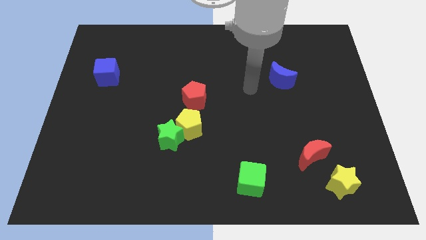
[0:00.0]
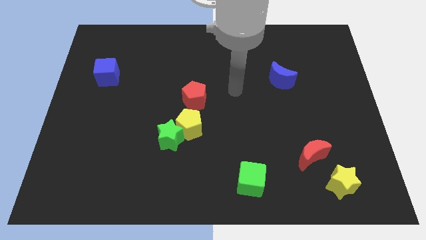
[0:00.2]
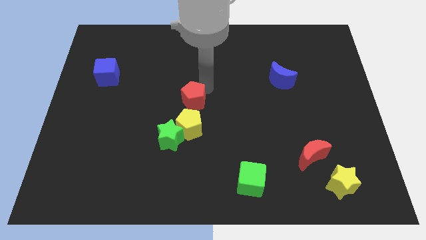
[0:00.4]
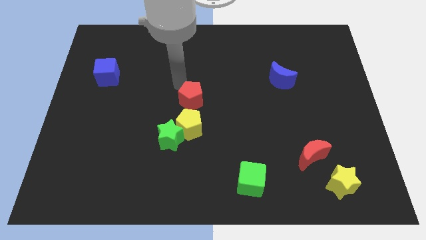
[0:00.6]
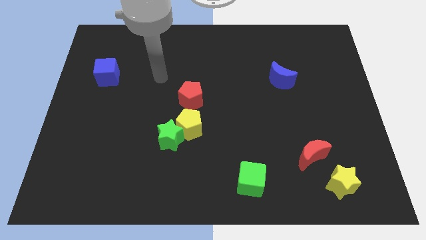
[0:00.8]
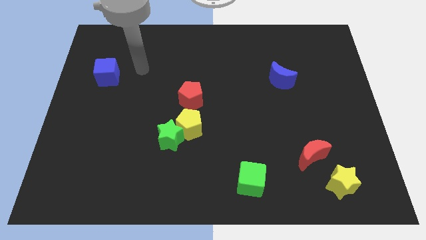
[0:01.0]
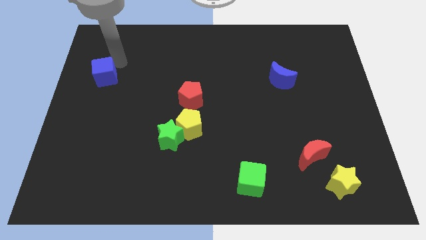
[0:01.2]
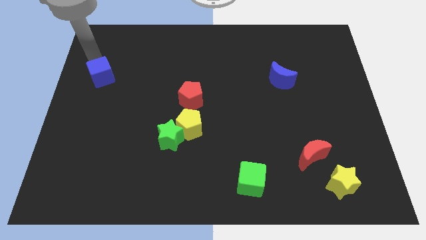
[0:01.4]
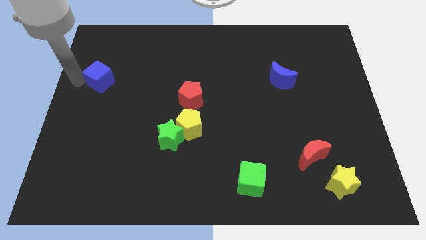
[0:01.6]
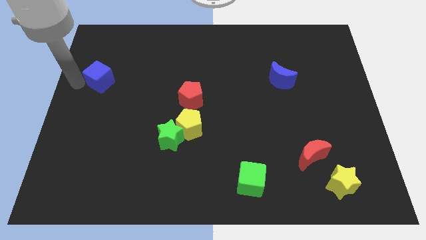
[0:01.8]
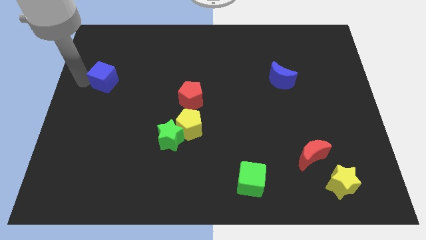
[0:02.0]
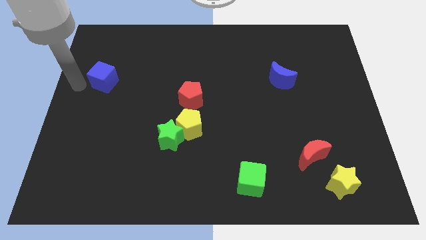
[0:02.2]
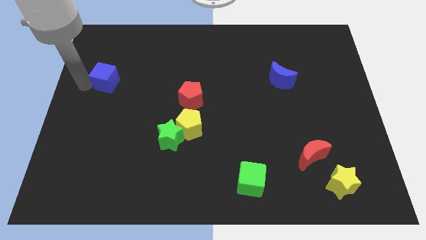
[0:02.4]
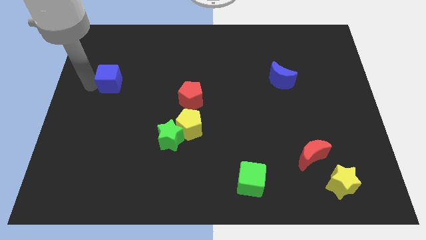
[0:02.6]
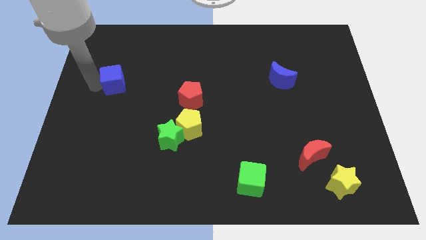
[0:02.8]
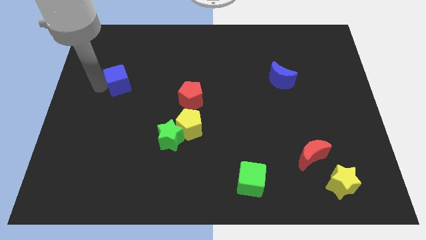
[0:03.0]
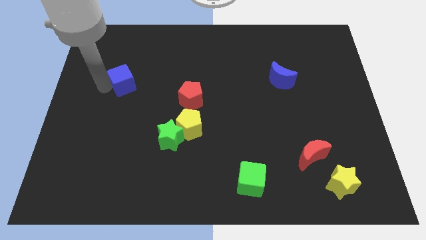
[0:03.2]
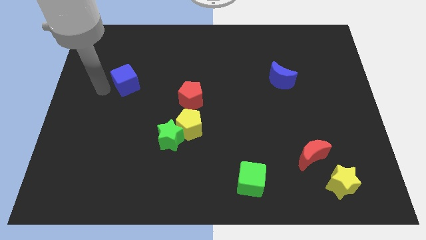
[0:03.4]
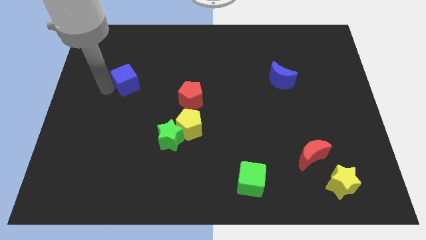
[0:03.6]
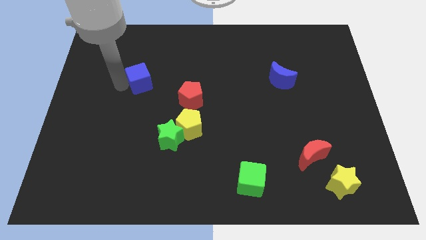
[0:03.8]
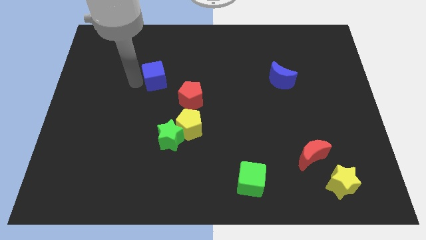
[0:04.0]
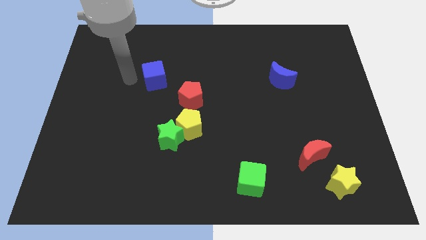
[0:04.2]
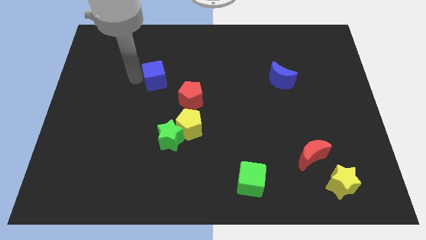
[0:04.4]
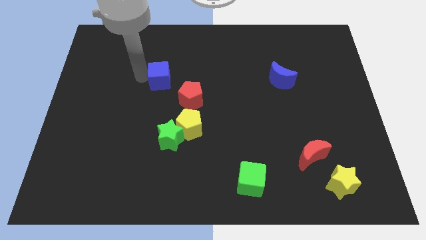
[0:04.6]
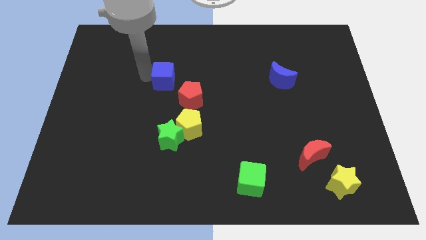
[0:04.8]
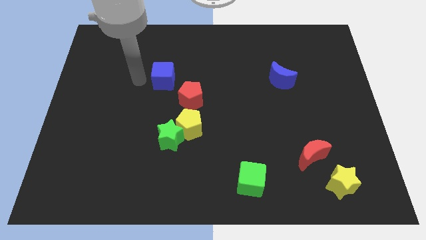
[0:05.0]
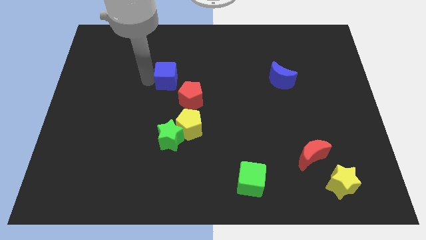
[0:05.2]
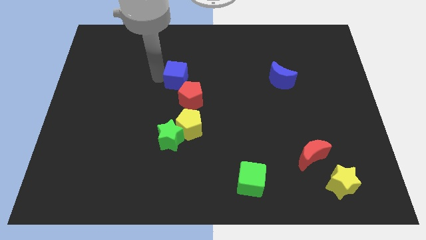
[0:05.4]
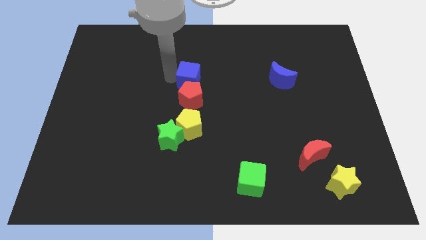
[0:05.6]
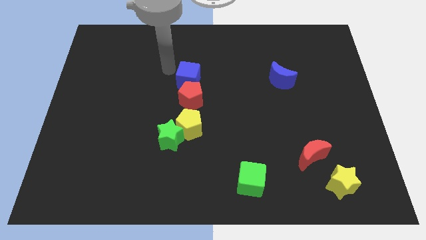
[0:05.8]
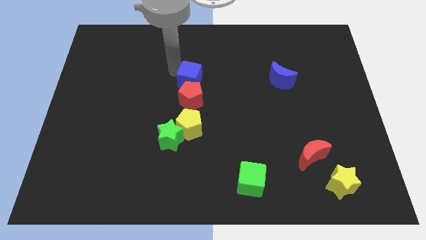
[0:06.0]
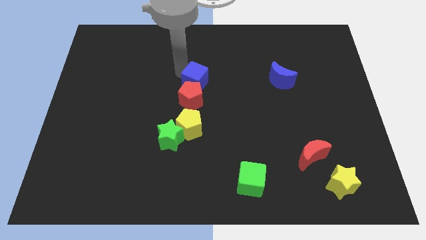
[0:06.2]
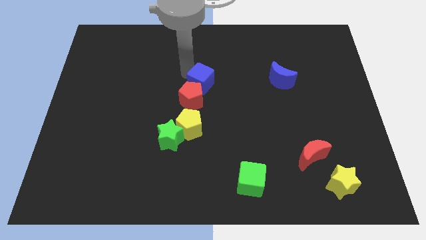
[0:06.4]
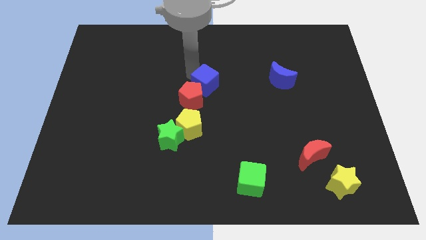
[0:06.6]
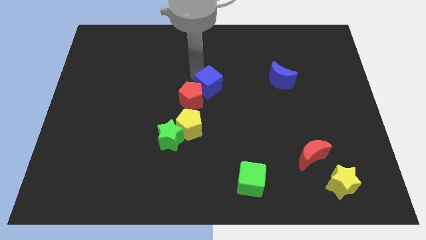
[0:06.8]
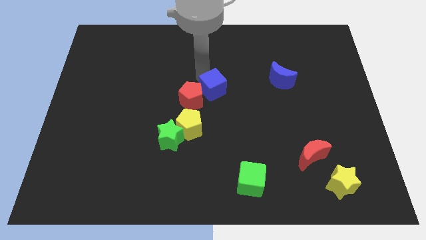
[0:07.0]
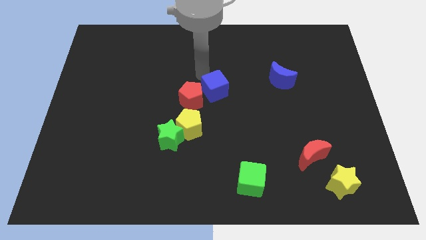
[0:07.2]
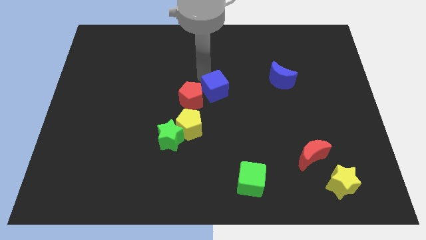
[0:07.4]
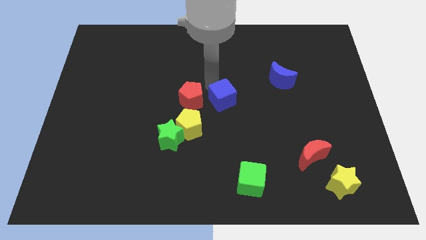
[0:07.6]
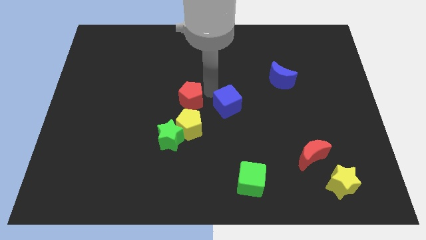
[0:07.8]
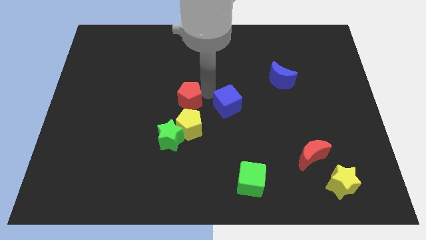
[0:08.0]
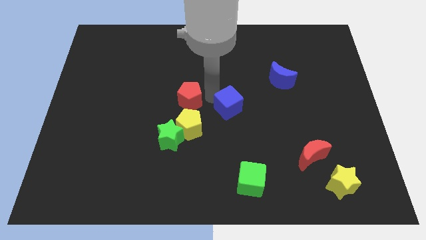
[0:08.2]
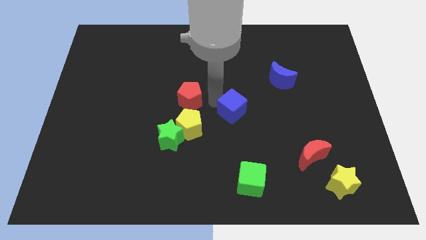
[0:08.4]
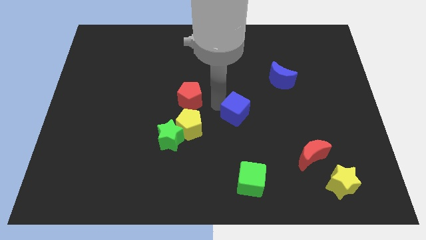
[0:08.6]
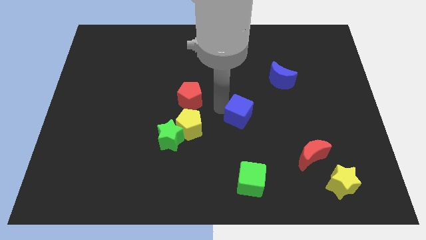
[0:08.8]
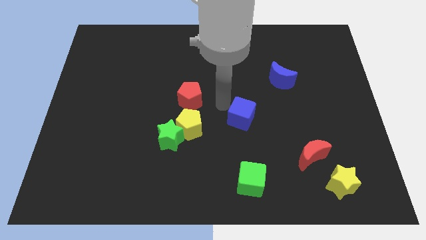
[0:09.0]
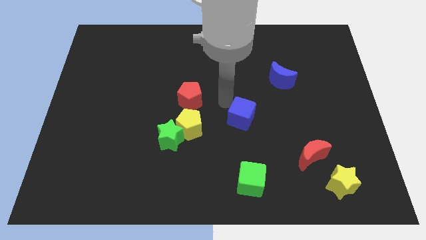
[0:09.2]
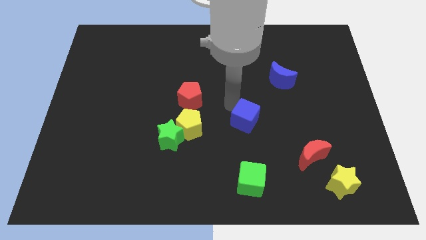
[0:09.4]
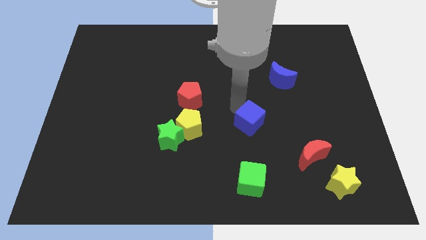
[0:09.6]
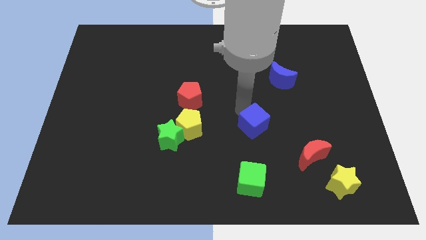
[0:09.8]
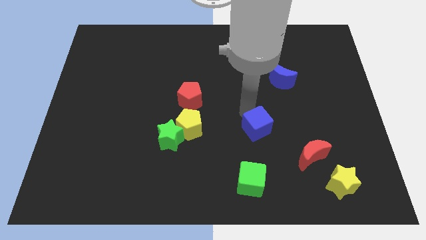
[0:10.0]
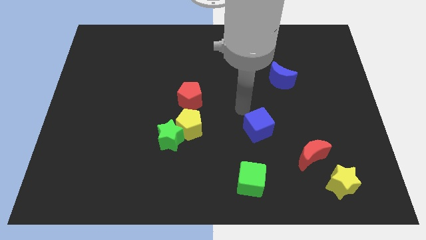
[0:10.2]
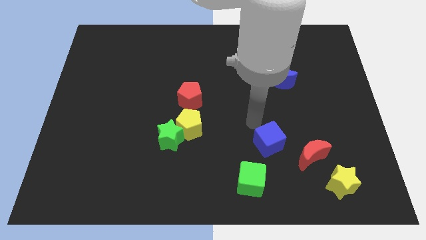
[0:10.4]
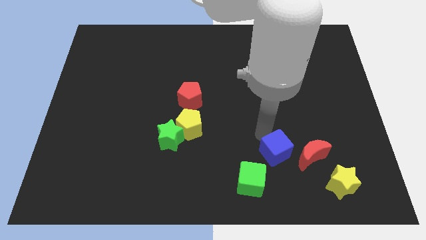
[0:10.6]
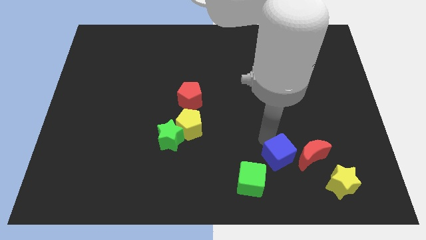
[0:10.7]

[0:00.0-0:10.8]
put the blue cube to the bottom left side of the red moon

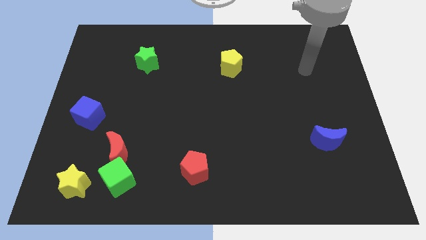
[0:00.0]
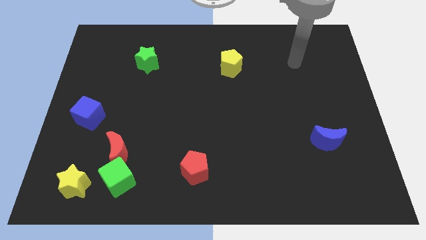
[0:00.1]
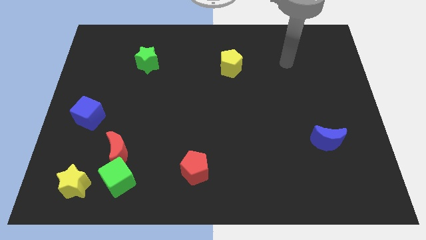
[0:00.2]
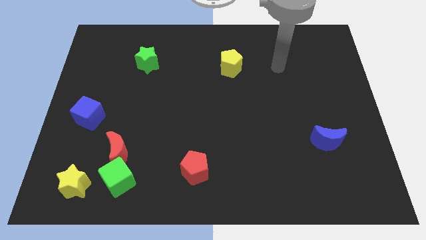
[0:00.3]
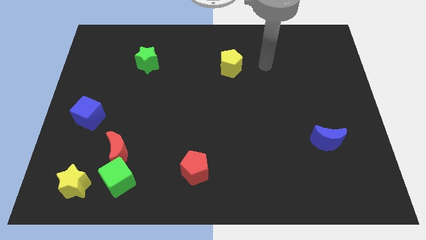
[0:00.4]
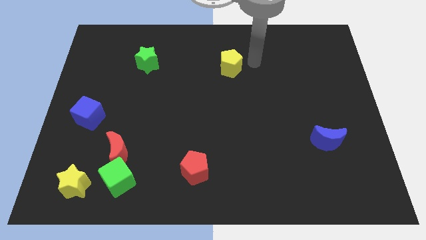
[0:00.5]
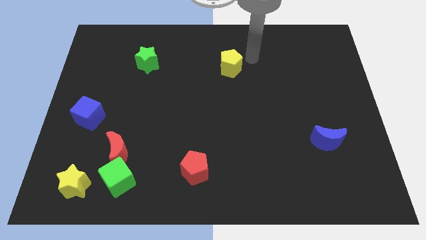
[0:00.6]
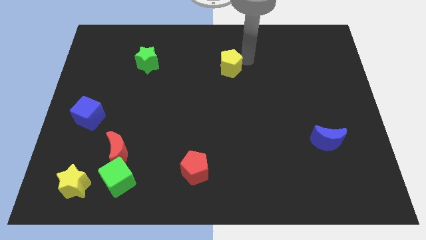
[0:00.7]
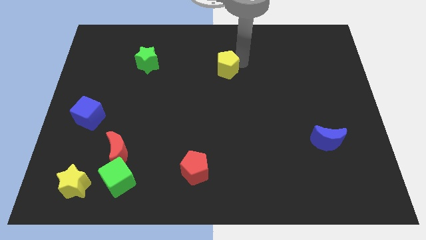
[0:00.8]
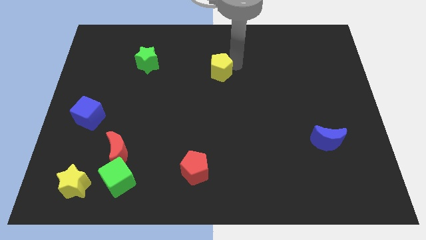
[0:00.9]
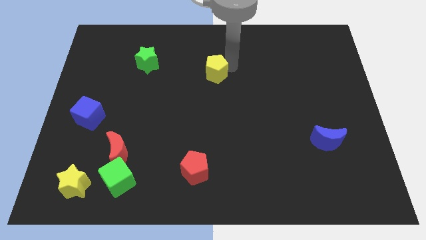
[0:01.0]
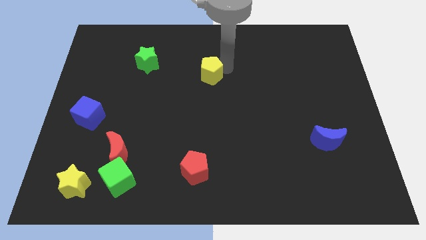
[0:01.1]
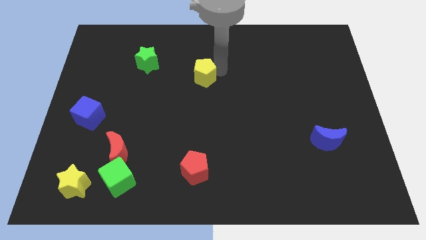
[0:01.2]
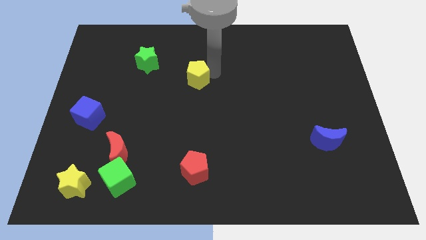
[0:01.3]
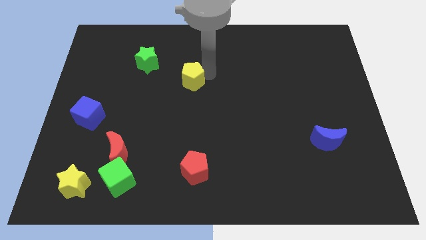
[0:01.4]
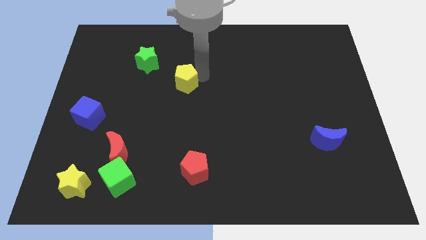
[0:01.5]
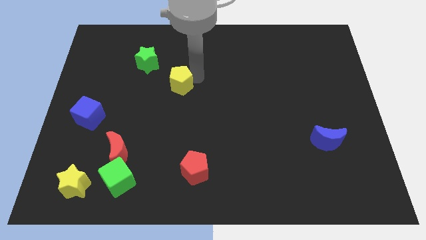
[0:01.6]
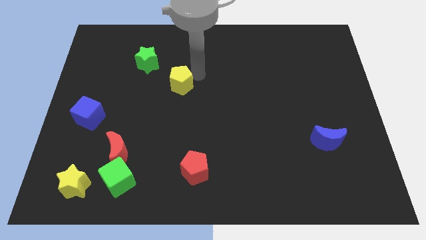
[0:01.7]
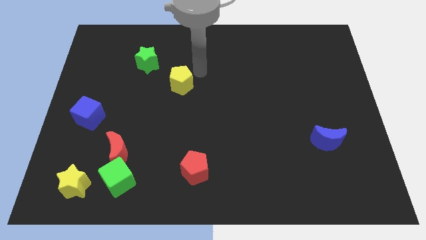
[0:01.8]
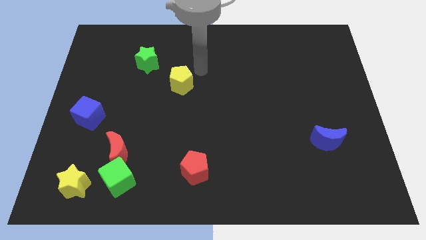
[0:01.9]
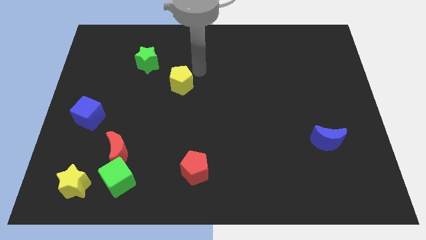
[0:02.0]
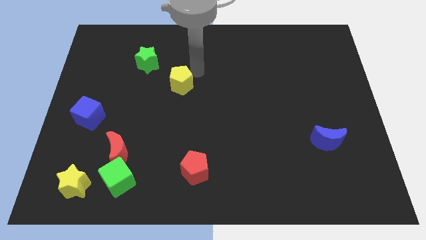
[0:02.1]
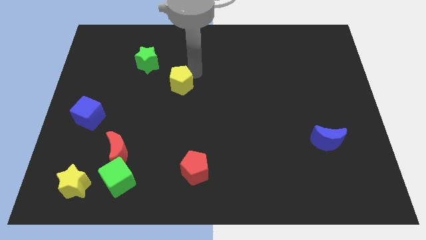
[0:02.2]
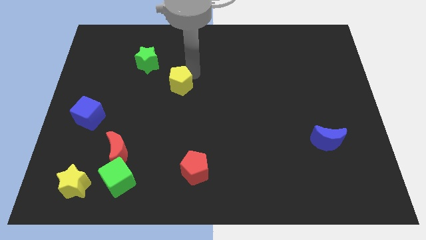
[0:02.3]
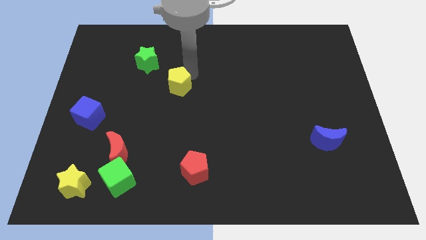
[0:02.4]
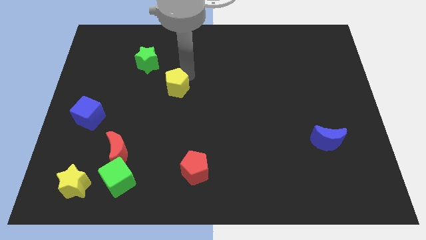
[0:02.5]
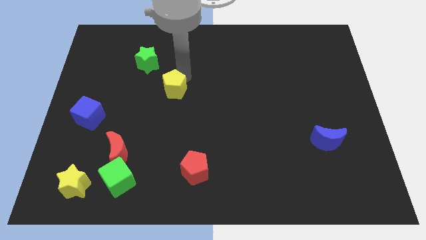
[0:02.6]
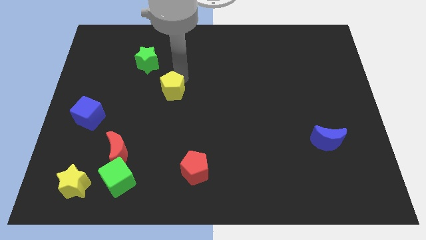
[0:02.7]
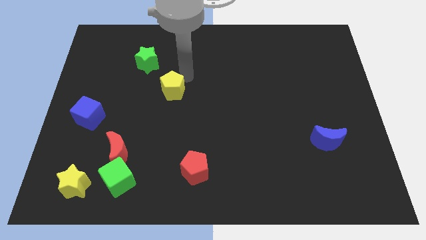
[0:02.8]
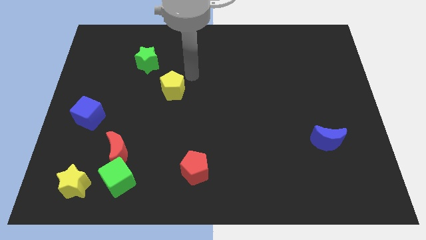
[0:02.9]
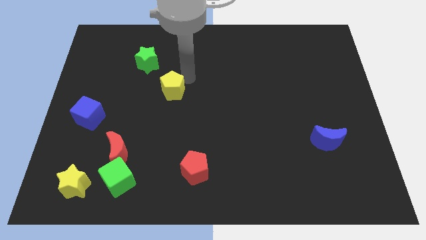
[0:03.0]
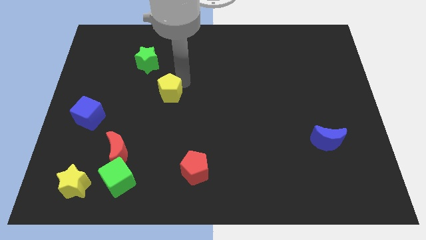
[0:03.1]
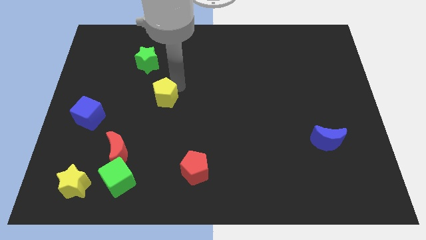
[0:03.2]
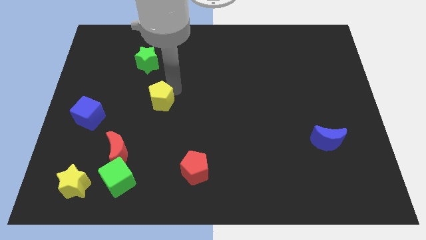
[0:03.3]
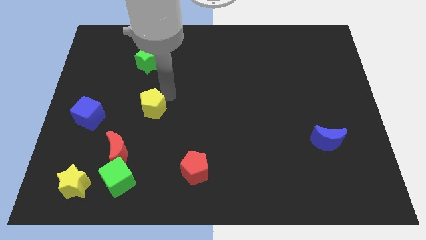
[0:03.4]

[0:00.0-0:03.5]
push the yellow pentagon right of the blue cube
